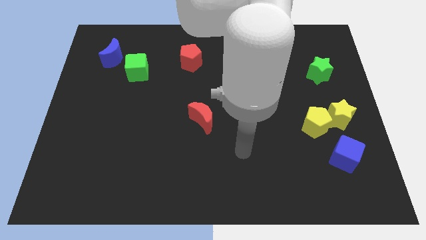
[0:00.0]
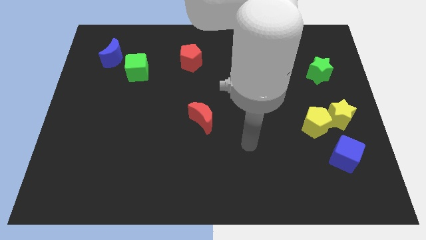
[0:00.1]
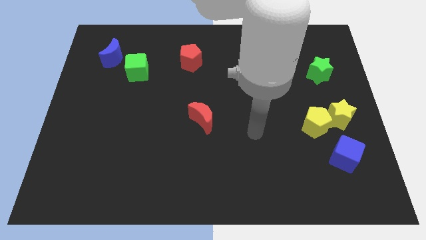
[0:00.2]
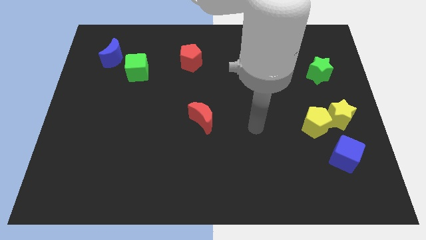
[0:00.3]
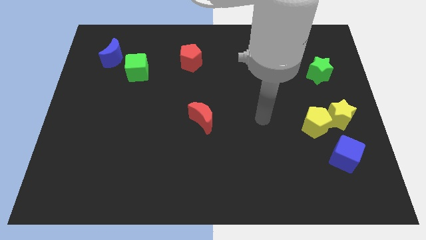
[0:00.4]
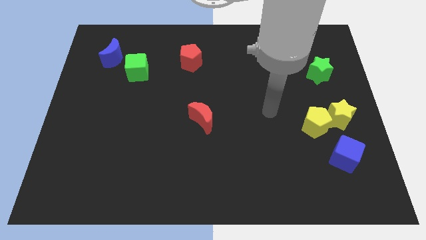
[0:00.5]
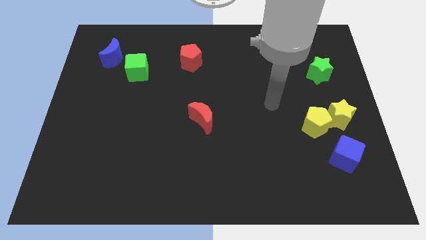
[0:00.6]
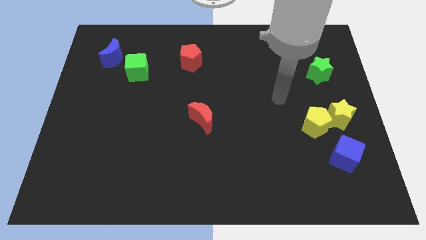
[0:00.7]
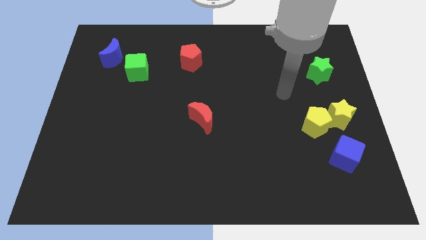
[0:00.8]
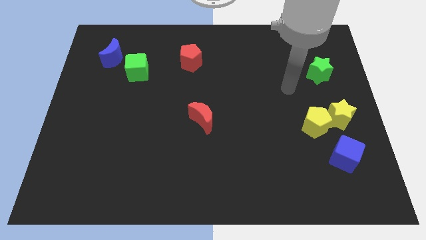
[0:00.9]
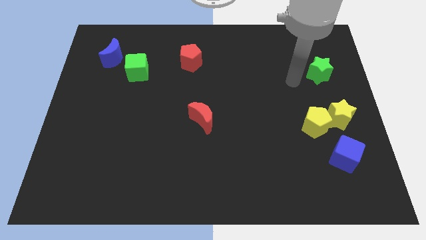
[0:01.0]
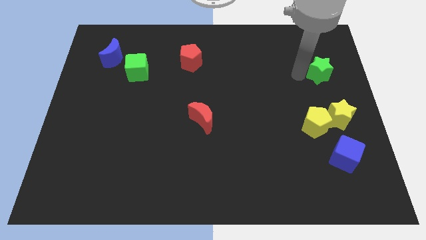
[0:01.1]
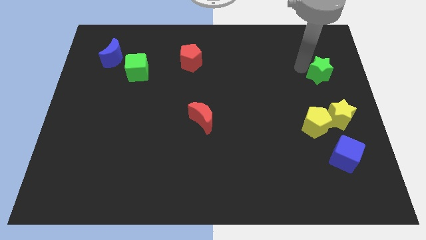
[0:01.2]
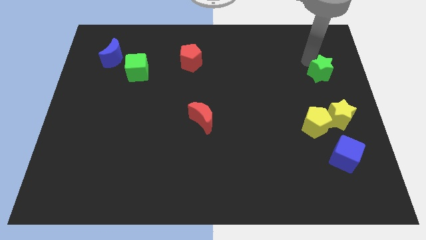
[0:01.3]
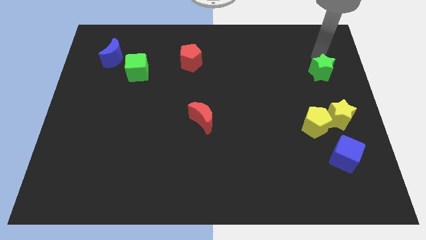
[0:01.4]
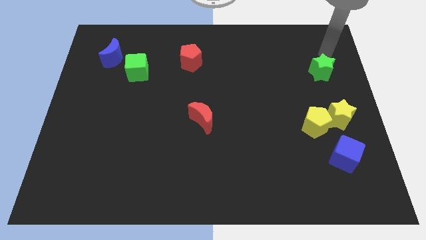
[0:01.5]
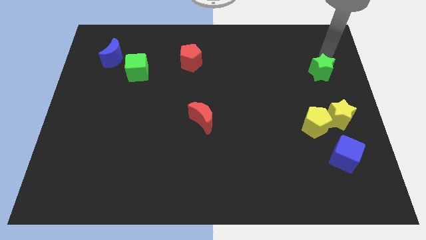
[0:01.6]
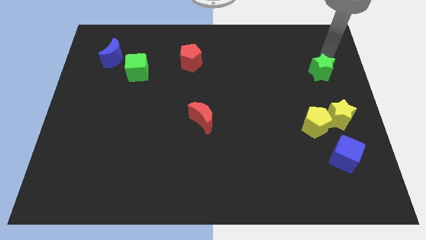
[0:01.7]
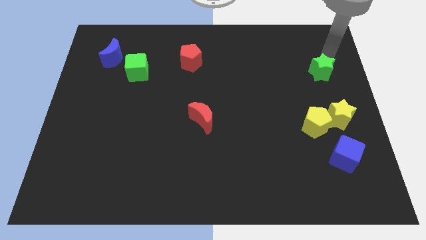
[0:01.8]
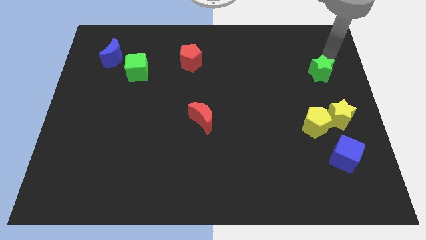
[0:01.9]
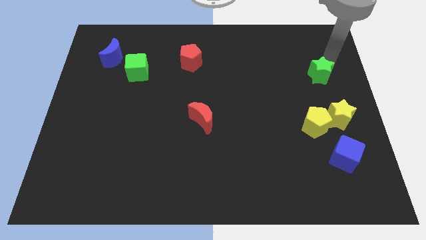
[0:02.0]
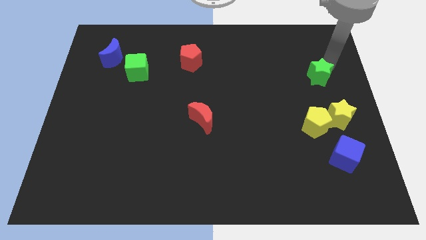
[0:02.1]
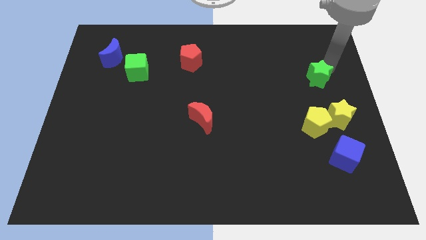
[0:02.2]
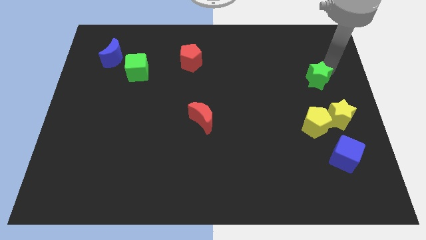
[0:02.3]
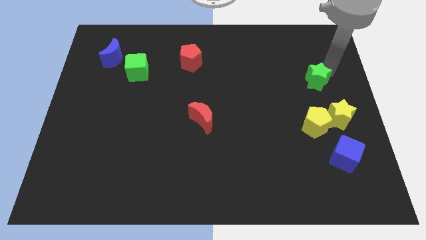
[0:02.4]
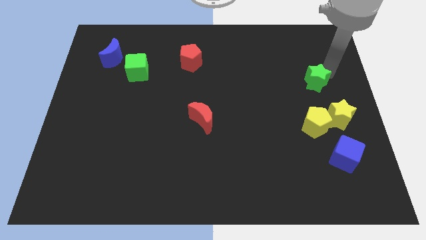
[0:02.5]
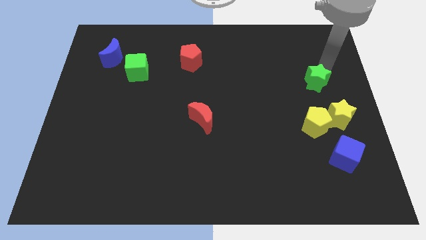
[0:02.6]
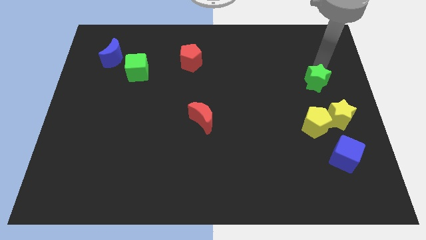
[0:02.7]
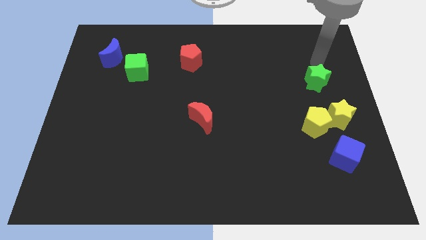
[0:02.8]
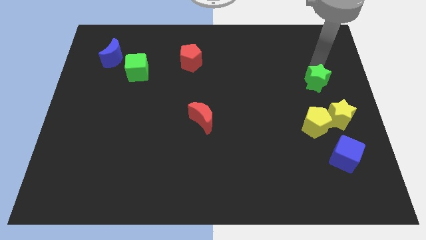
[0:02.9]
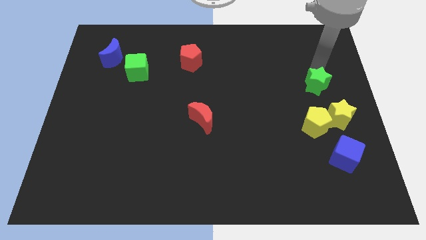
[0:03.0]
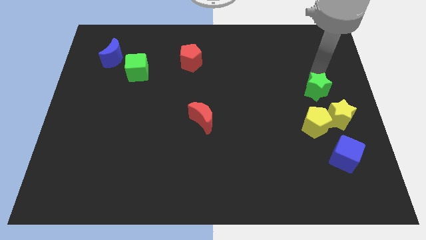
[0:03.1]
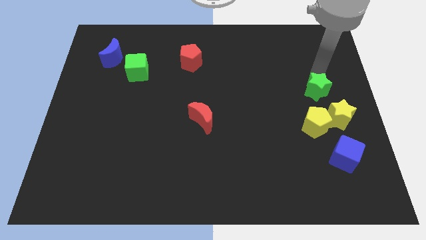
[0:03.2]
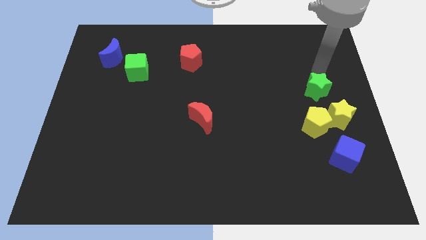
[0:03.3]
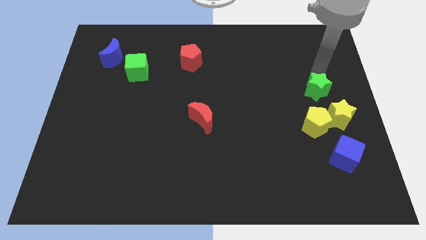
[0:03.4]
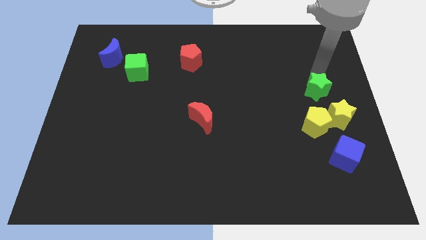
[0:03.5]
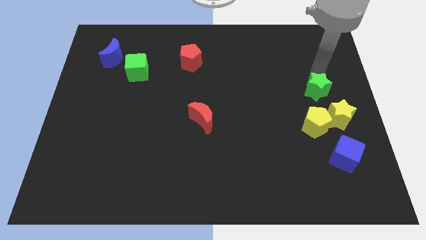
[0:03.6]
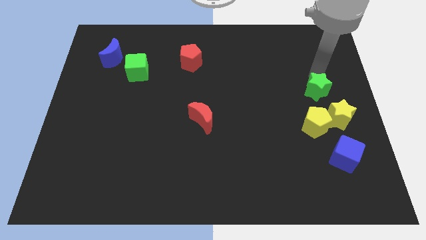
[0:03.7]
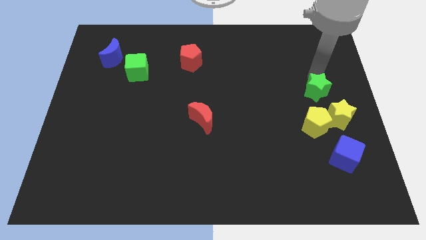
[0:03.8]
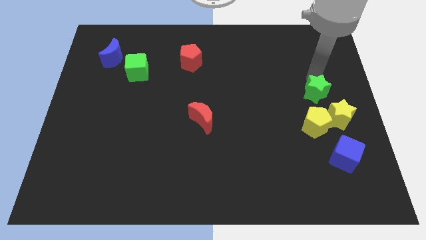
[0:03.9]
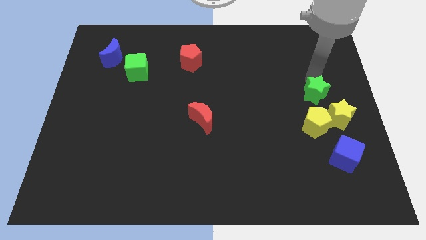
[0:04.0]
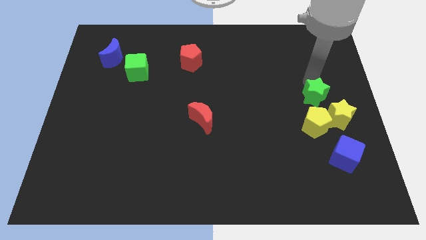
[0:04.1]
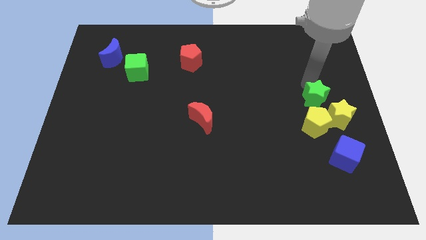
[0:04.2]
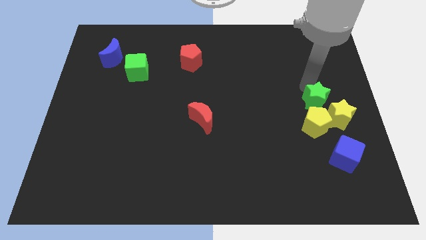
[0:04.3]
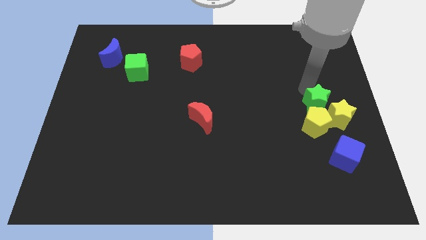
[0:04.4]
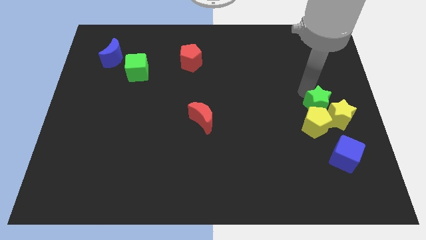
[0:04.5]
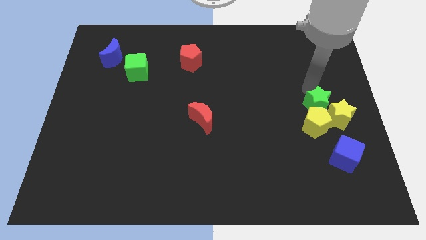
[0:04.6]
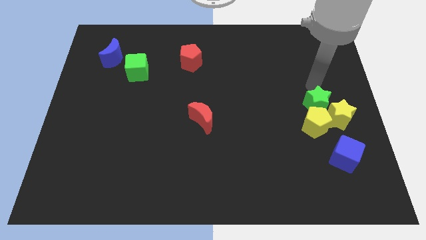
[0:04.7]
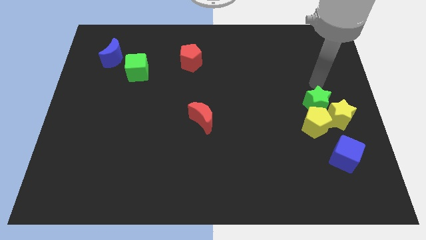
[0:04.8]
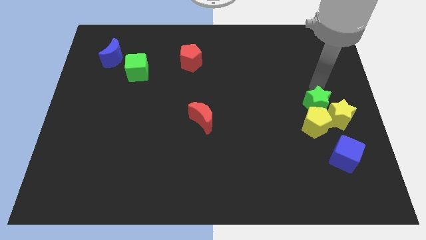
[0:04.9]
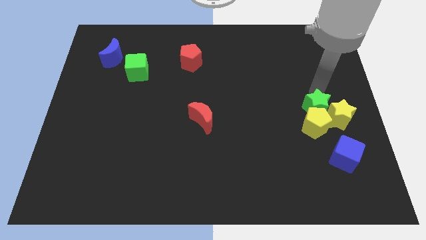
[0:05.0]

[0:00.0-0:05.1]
slide the green star towards the yellow pentagon

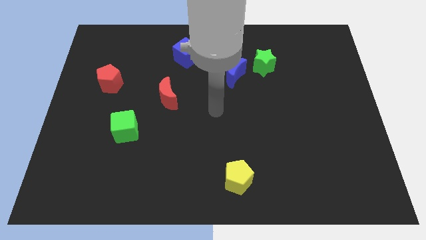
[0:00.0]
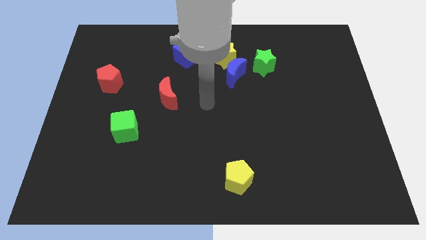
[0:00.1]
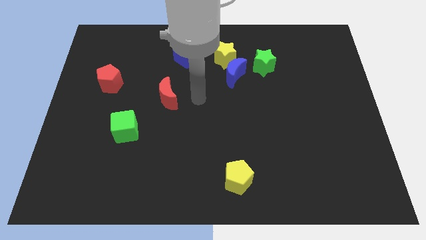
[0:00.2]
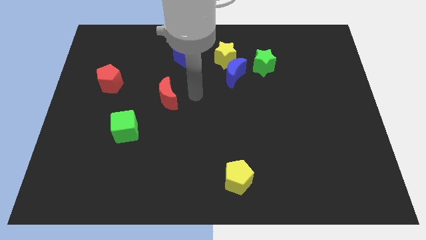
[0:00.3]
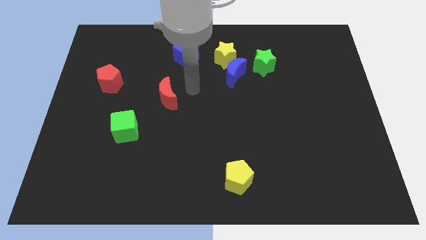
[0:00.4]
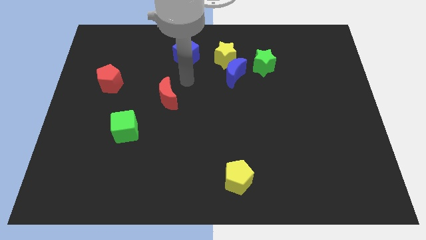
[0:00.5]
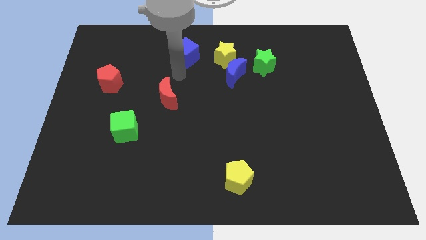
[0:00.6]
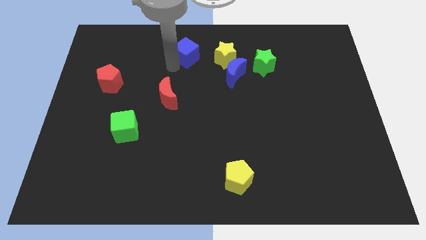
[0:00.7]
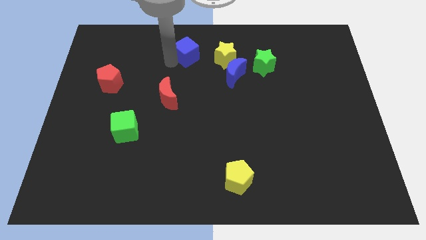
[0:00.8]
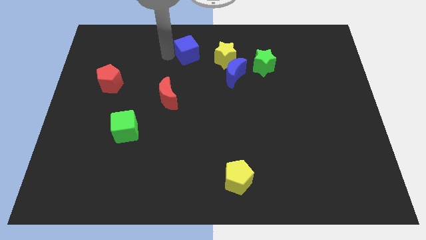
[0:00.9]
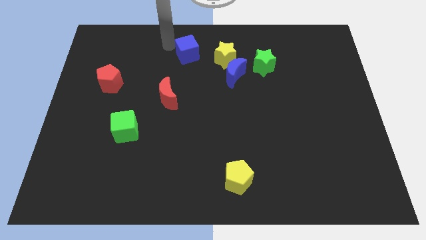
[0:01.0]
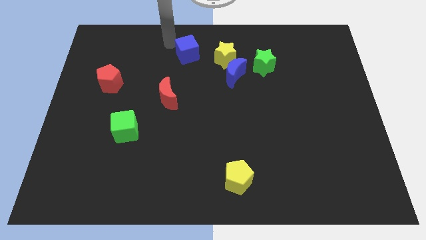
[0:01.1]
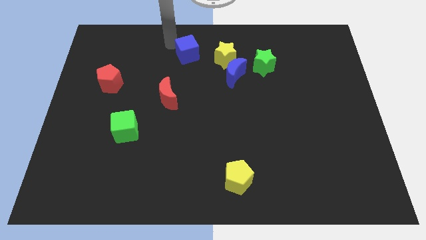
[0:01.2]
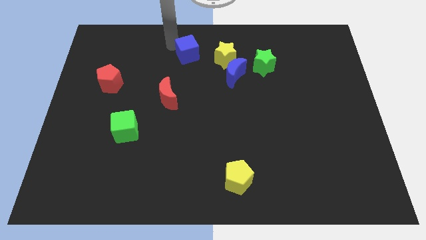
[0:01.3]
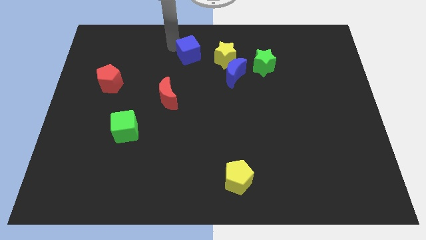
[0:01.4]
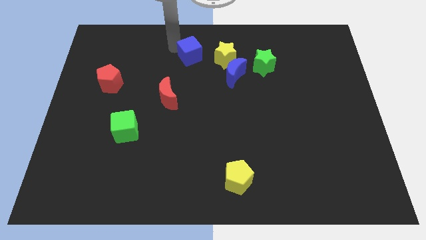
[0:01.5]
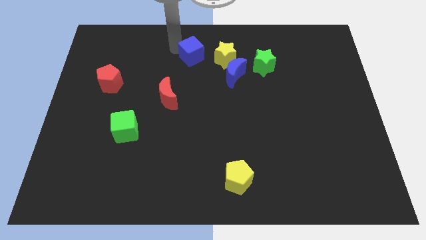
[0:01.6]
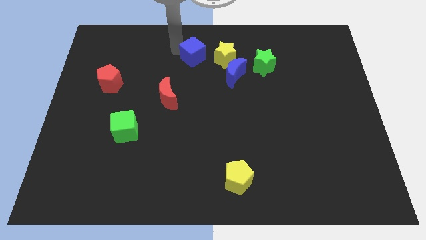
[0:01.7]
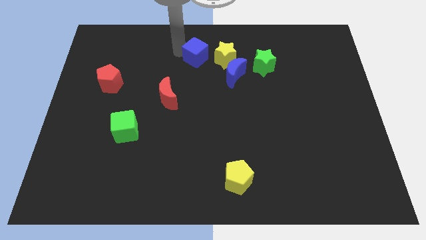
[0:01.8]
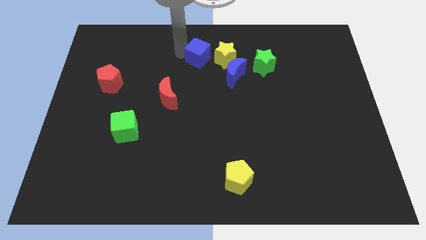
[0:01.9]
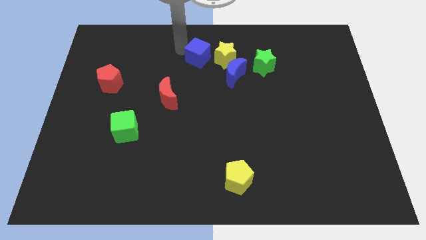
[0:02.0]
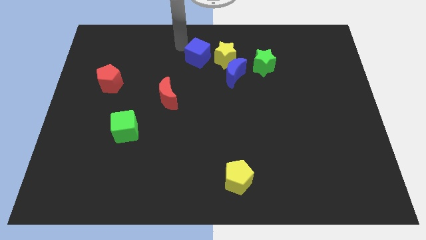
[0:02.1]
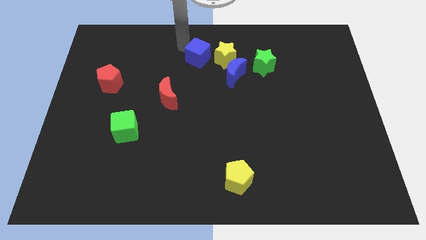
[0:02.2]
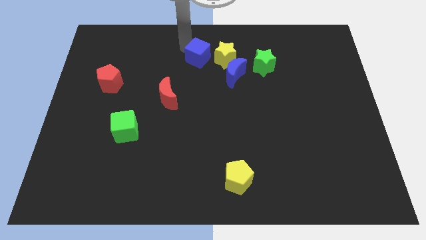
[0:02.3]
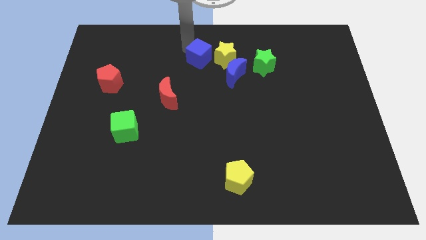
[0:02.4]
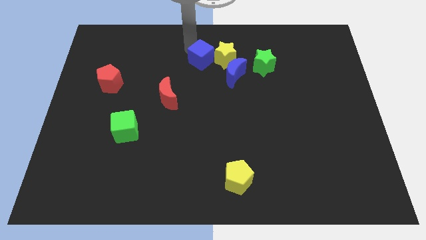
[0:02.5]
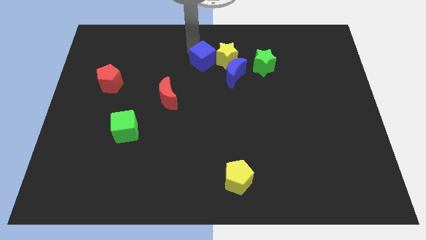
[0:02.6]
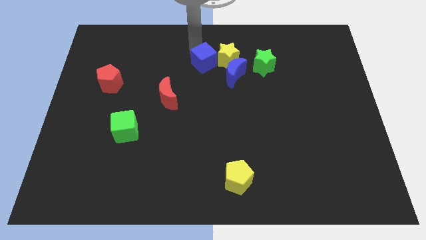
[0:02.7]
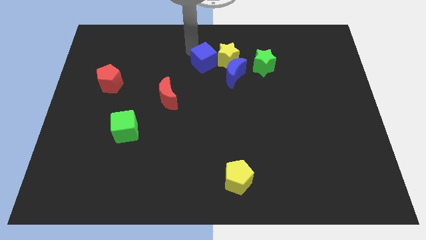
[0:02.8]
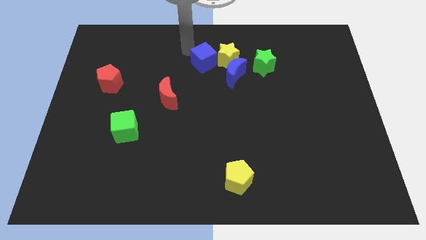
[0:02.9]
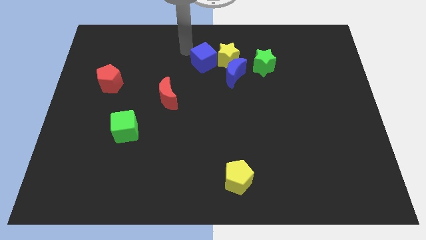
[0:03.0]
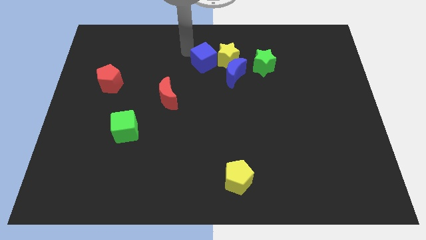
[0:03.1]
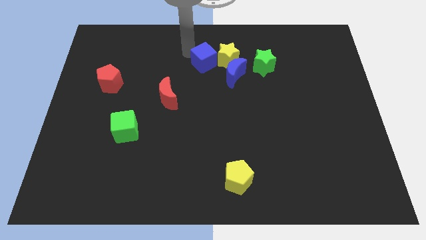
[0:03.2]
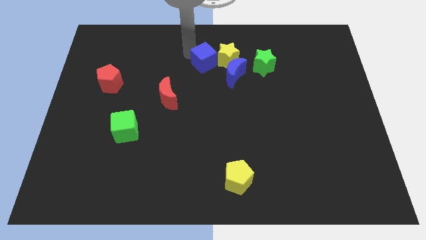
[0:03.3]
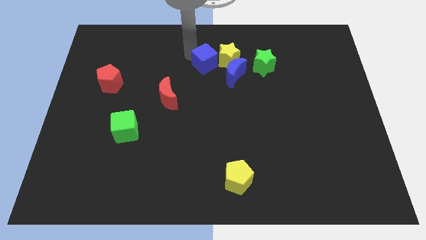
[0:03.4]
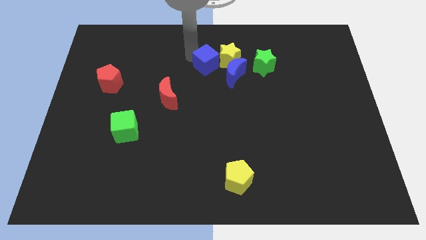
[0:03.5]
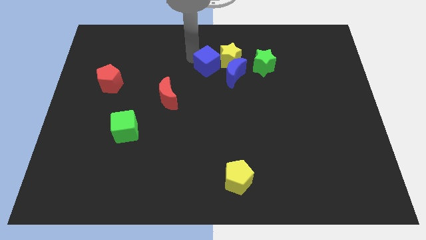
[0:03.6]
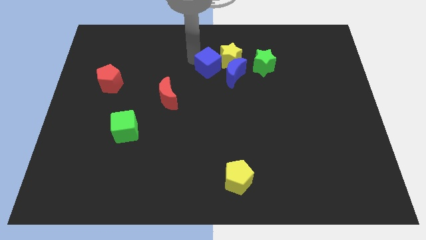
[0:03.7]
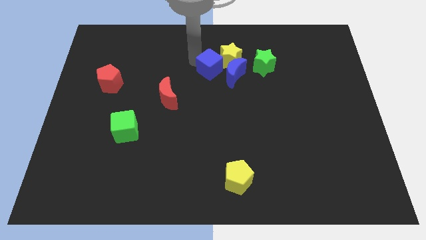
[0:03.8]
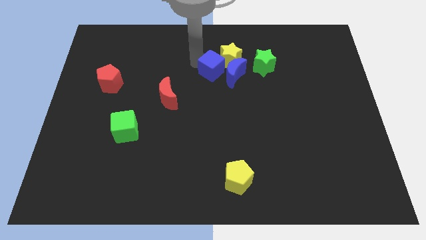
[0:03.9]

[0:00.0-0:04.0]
push the blue cube towards the blue moon
